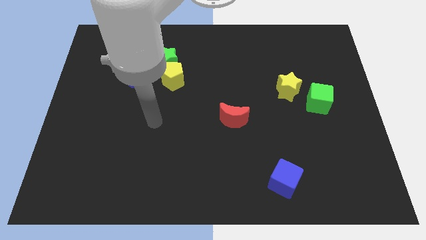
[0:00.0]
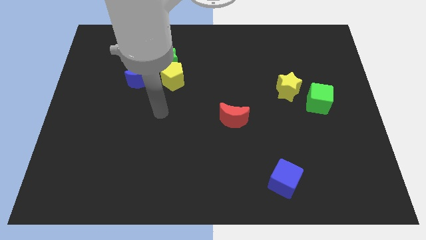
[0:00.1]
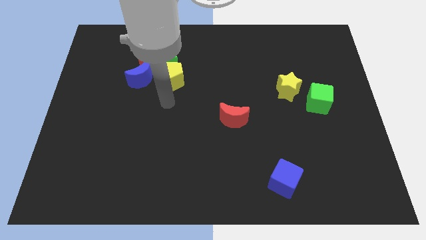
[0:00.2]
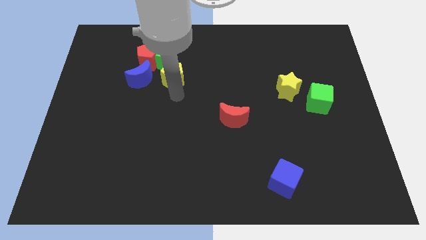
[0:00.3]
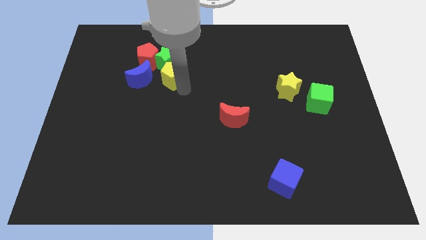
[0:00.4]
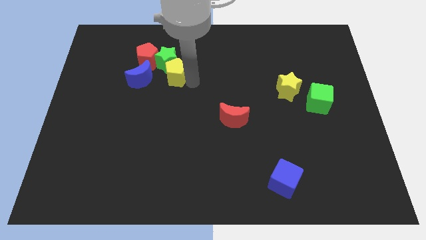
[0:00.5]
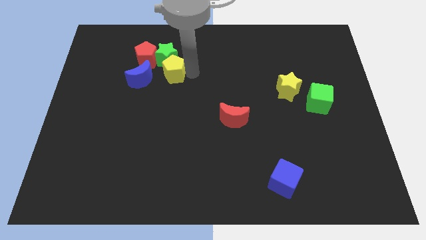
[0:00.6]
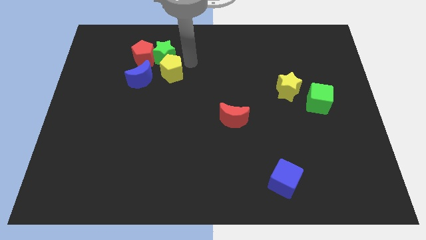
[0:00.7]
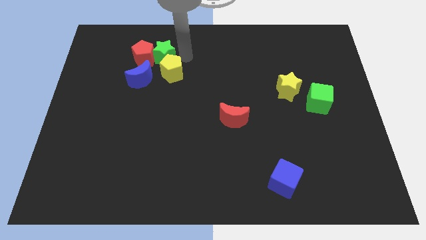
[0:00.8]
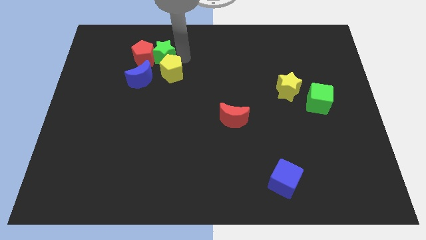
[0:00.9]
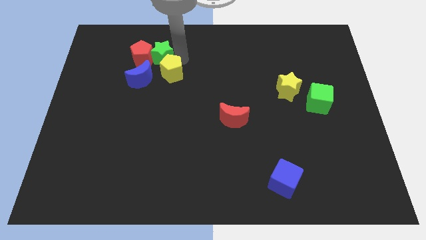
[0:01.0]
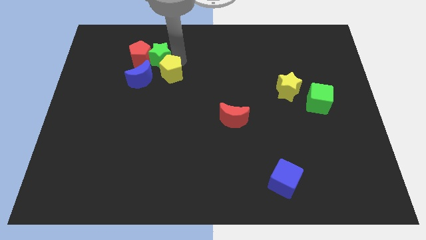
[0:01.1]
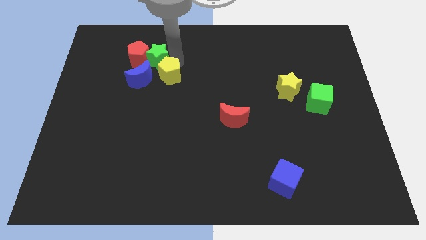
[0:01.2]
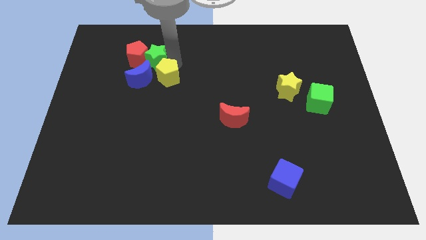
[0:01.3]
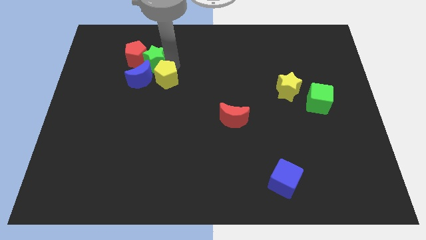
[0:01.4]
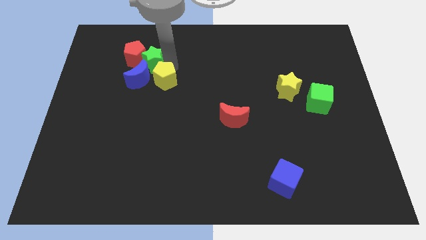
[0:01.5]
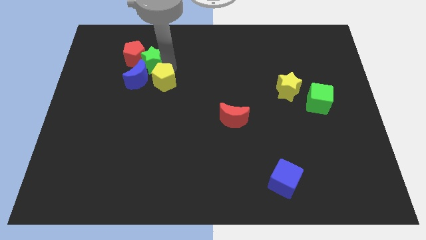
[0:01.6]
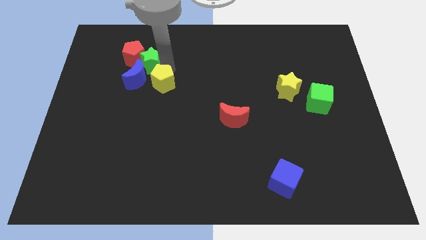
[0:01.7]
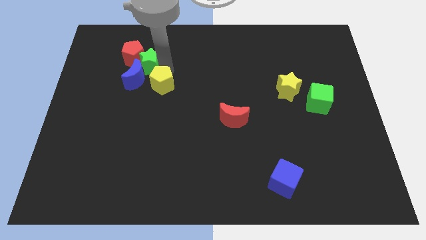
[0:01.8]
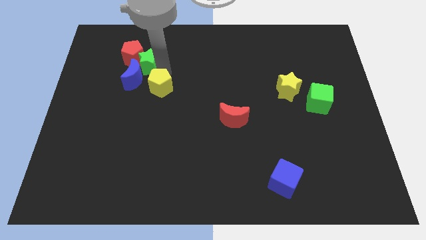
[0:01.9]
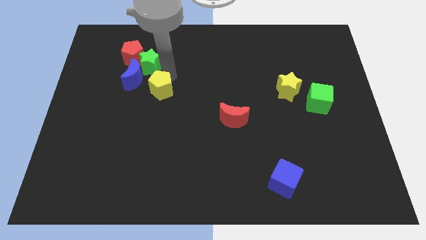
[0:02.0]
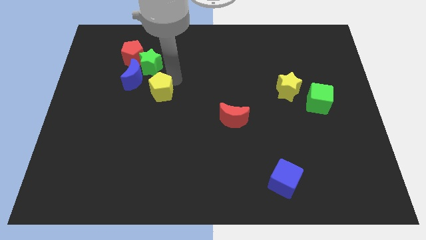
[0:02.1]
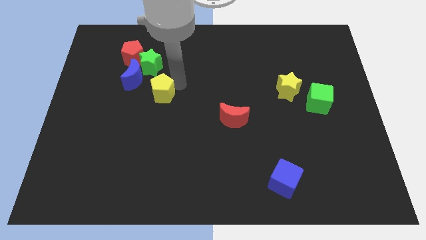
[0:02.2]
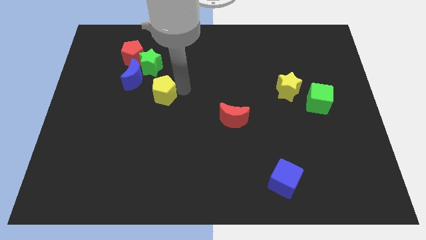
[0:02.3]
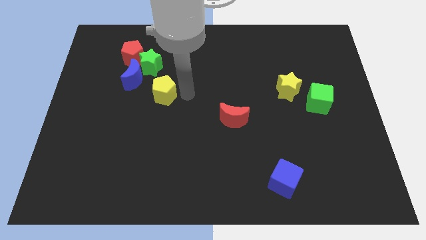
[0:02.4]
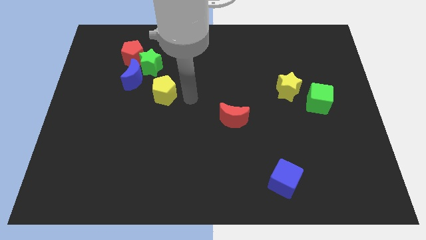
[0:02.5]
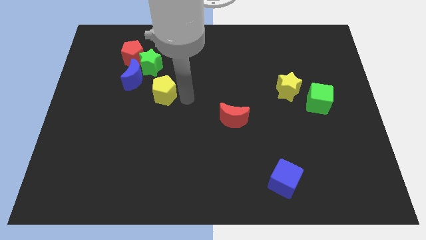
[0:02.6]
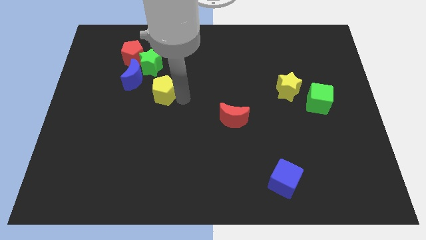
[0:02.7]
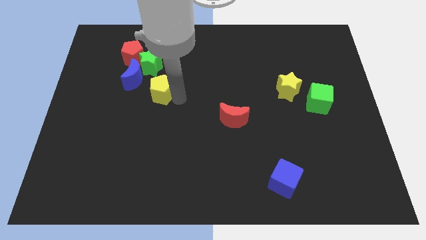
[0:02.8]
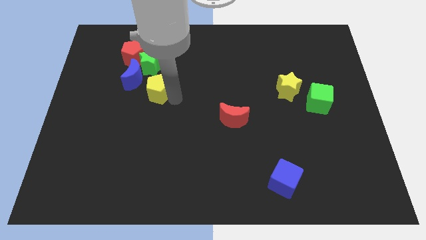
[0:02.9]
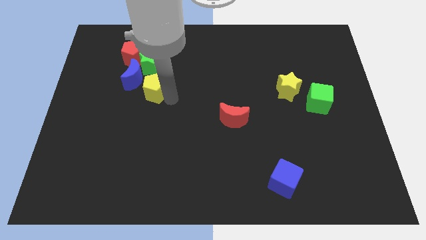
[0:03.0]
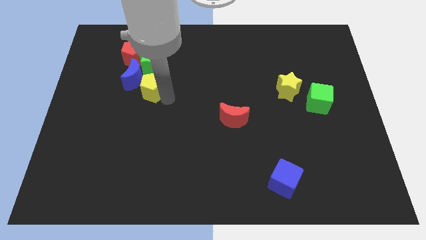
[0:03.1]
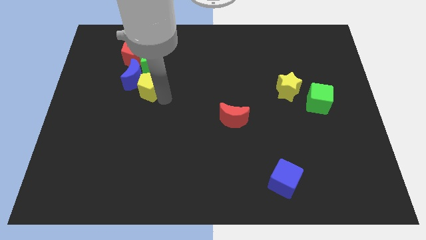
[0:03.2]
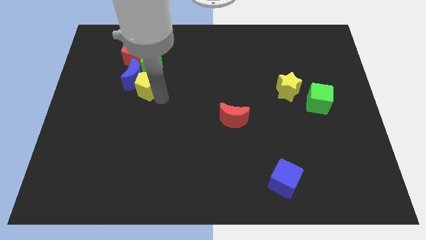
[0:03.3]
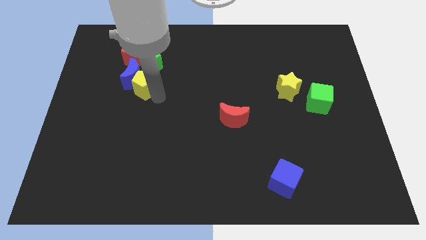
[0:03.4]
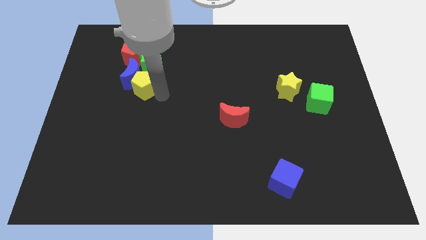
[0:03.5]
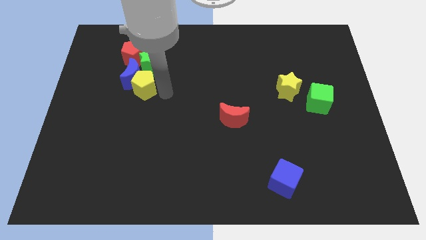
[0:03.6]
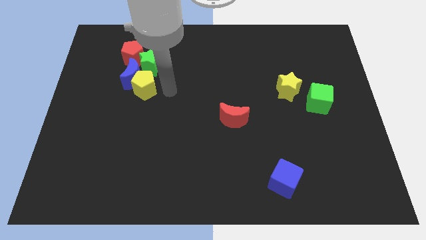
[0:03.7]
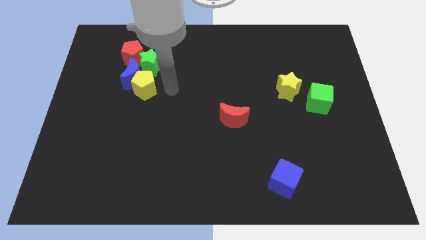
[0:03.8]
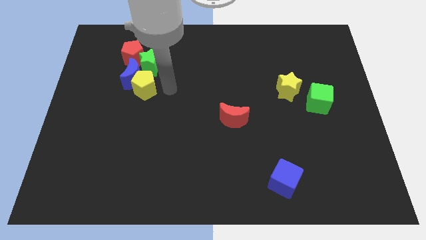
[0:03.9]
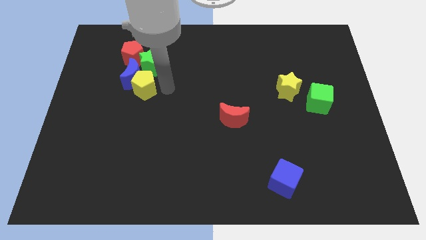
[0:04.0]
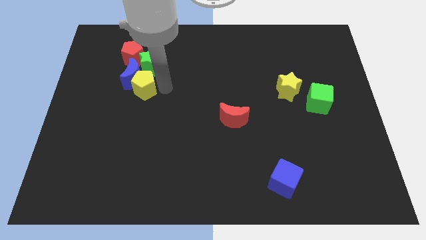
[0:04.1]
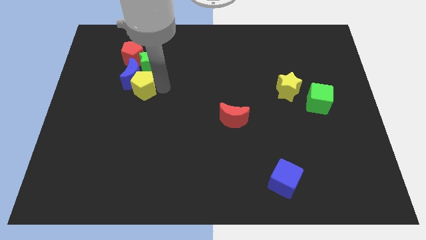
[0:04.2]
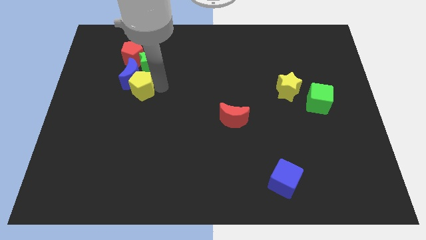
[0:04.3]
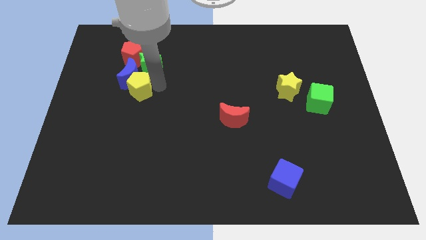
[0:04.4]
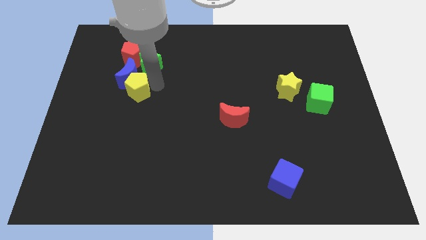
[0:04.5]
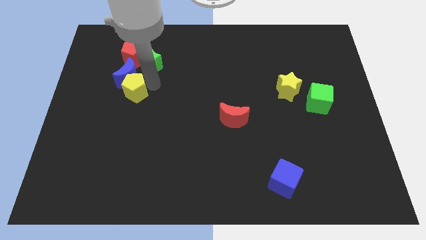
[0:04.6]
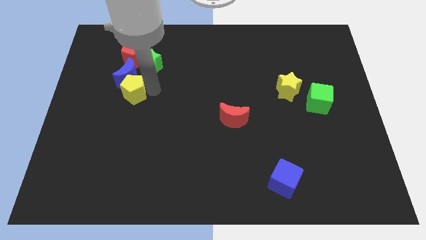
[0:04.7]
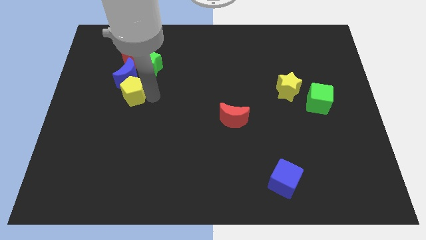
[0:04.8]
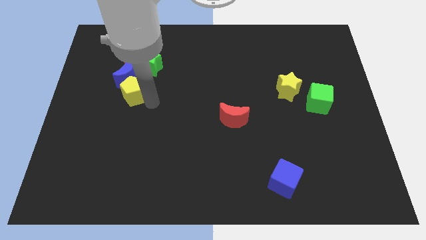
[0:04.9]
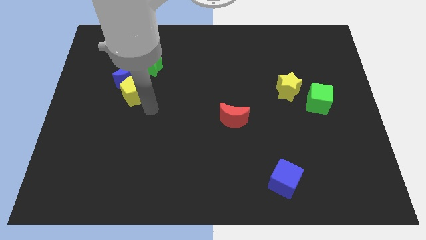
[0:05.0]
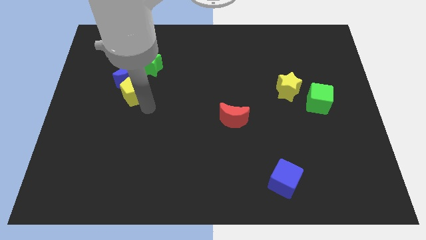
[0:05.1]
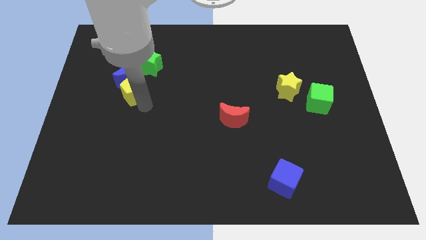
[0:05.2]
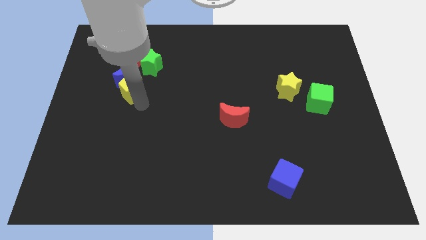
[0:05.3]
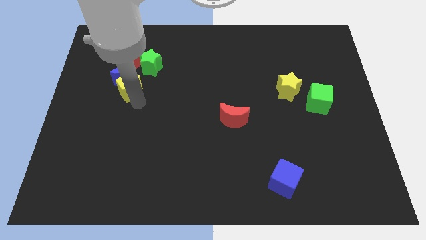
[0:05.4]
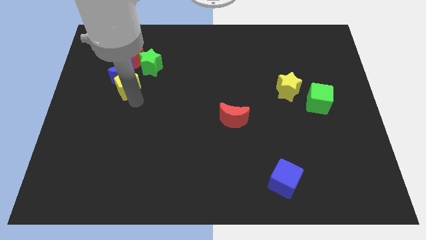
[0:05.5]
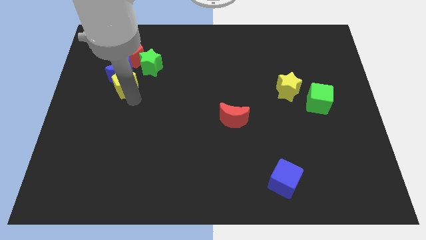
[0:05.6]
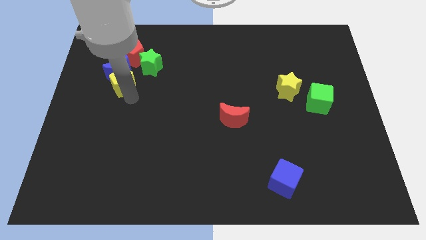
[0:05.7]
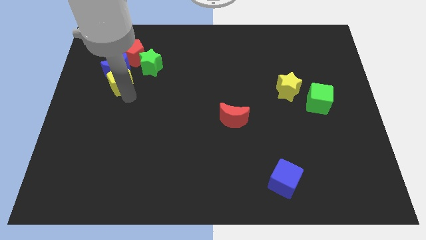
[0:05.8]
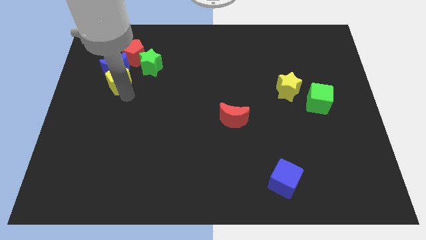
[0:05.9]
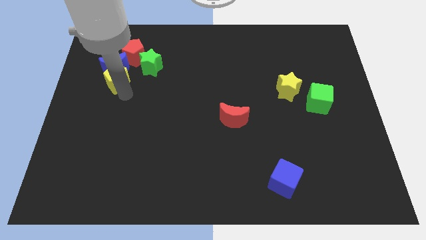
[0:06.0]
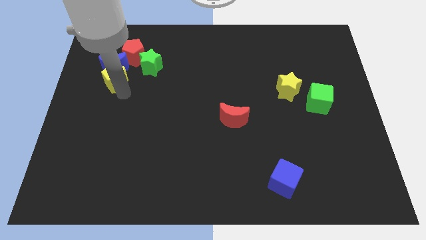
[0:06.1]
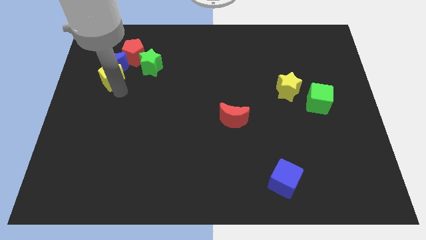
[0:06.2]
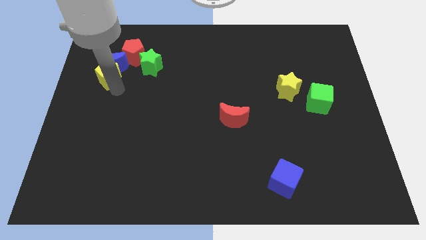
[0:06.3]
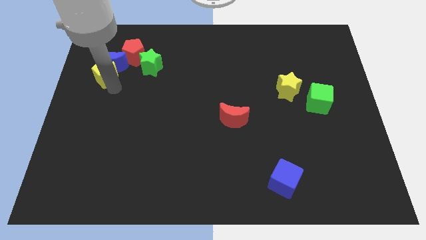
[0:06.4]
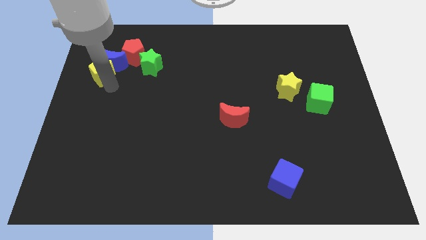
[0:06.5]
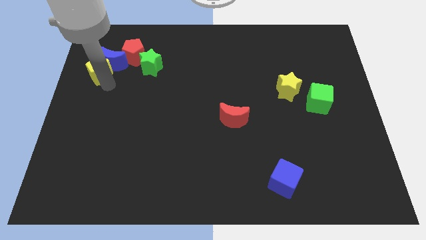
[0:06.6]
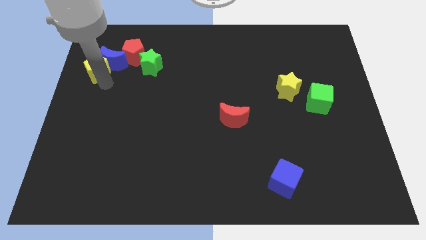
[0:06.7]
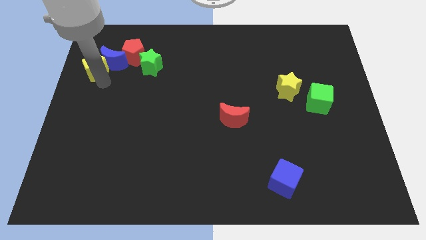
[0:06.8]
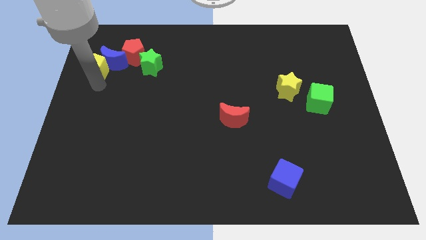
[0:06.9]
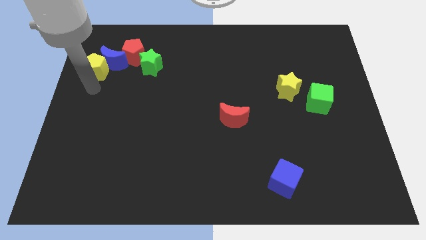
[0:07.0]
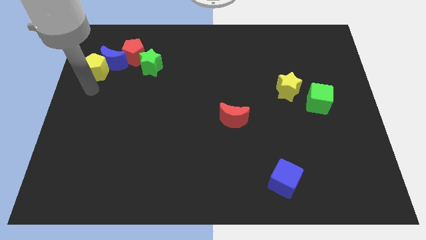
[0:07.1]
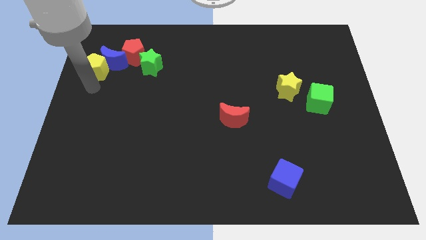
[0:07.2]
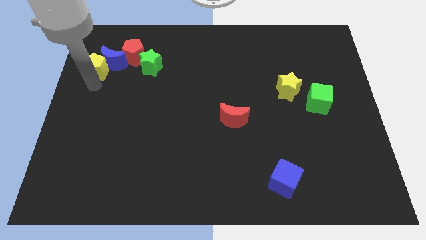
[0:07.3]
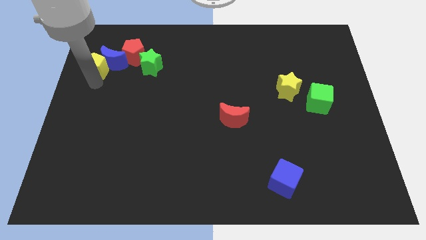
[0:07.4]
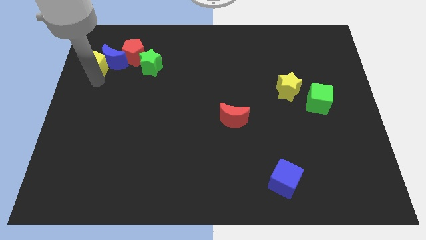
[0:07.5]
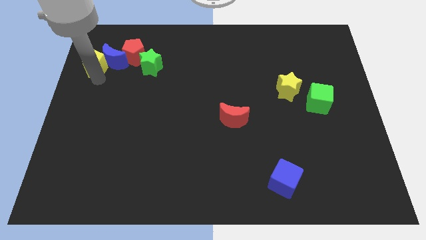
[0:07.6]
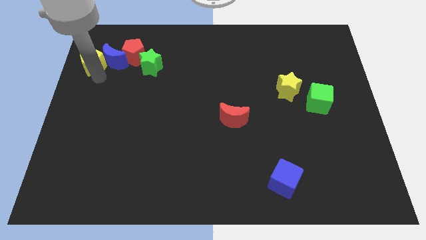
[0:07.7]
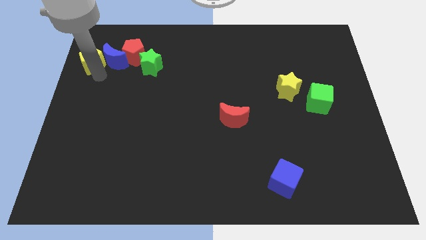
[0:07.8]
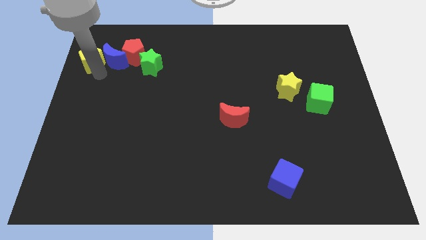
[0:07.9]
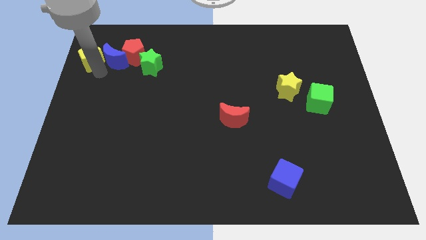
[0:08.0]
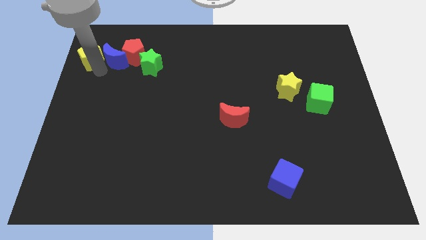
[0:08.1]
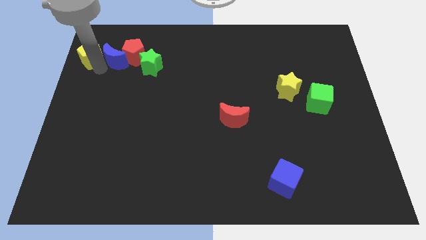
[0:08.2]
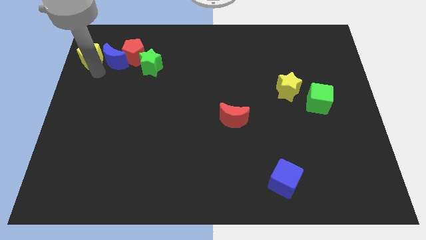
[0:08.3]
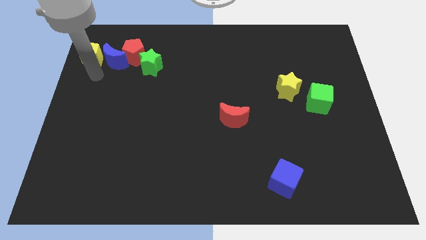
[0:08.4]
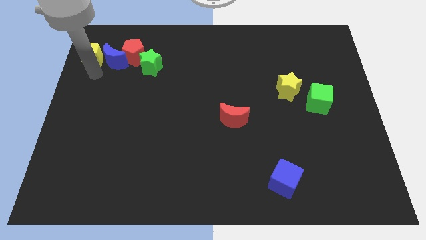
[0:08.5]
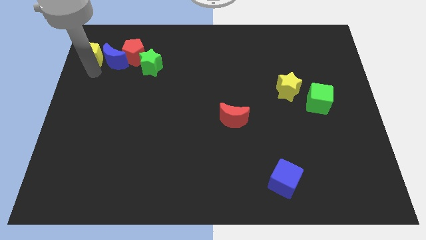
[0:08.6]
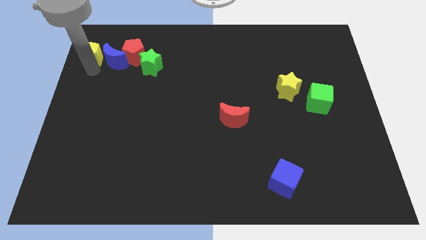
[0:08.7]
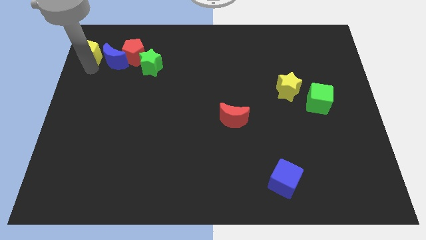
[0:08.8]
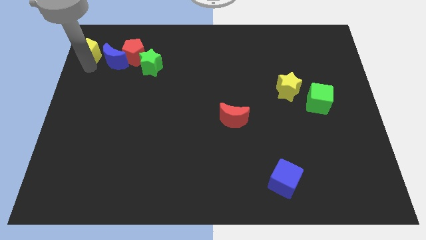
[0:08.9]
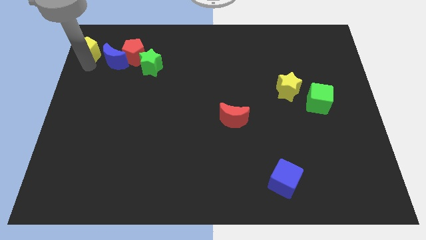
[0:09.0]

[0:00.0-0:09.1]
slide the yellow pentagon to the top left of the board
